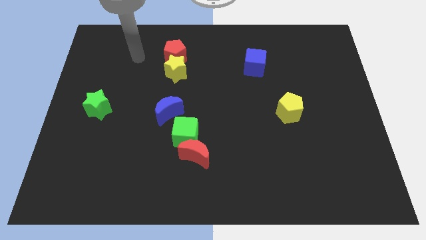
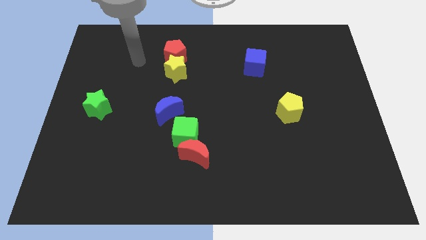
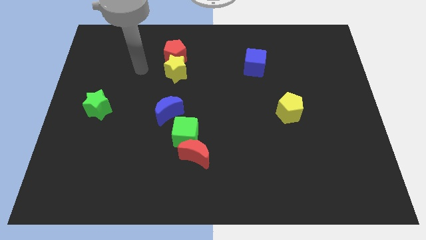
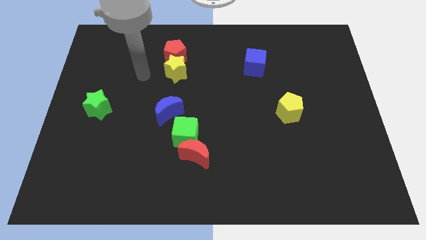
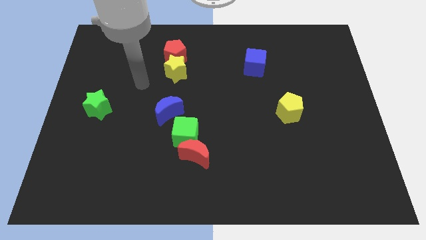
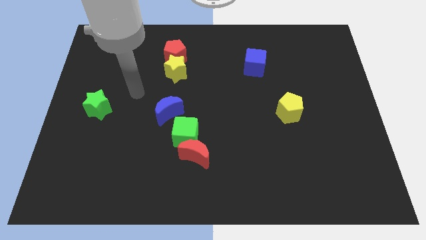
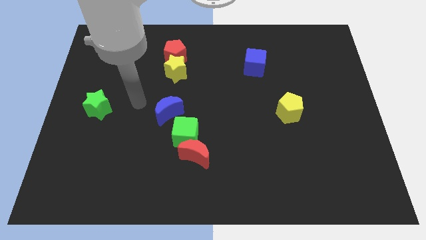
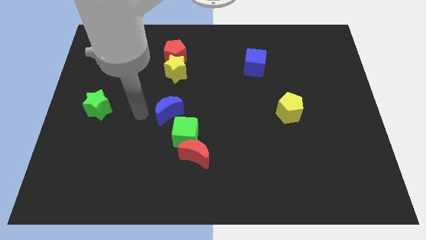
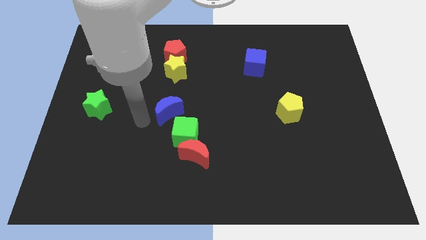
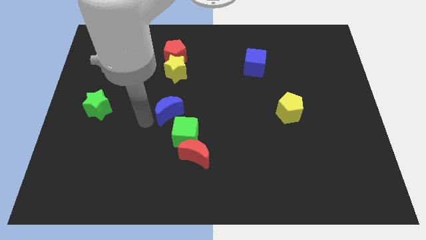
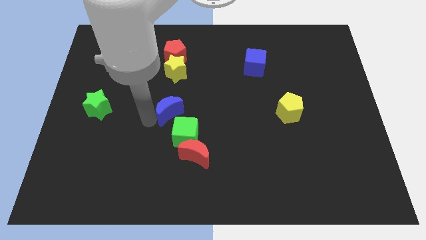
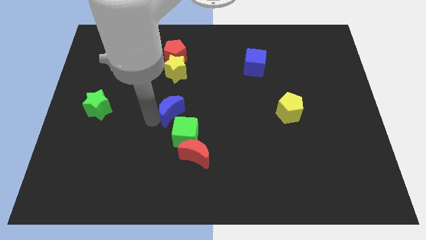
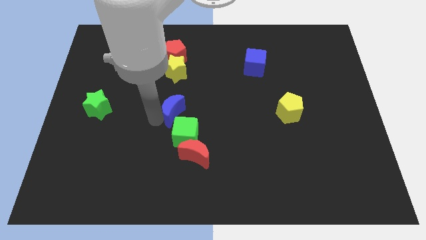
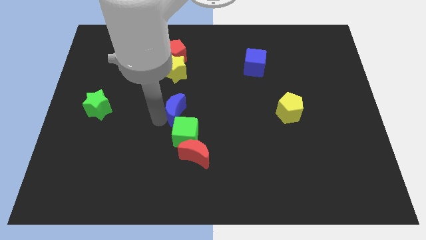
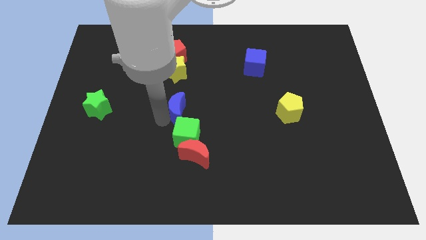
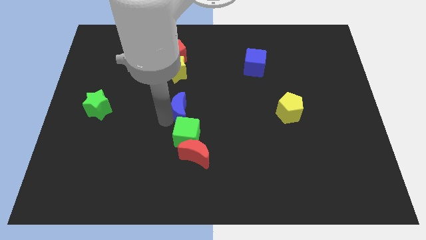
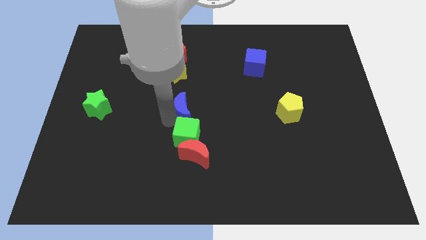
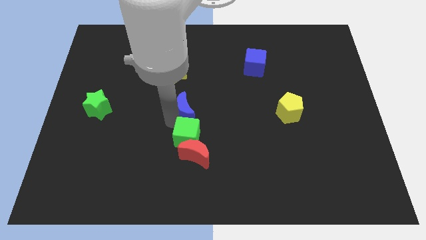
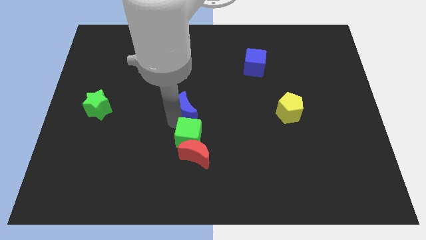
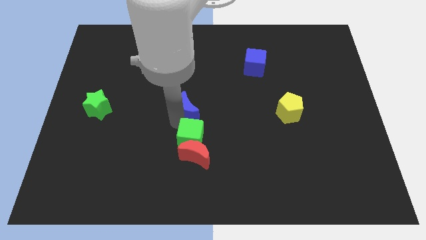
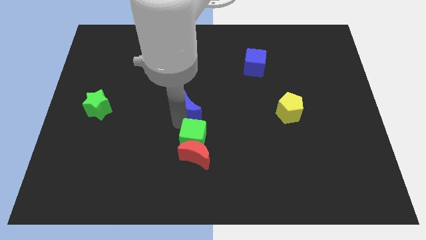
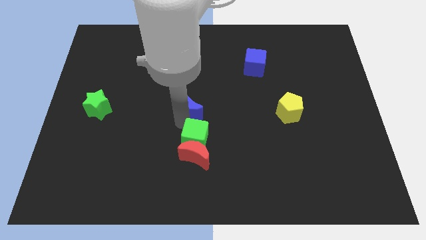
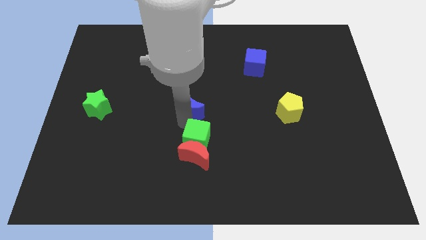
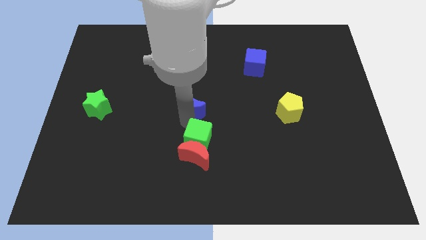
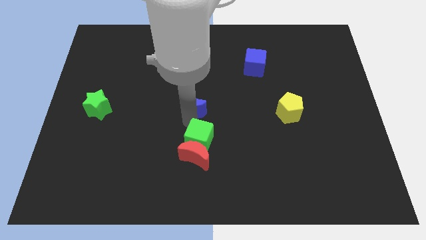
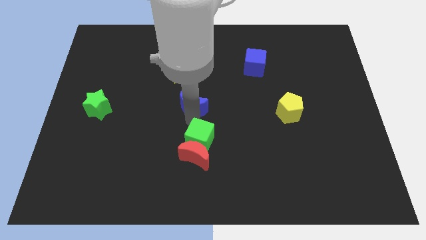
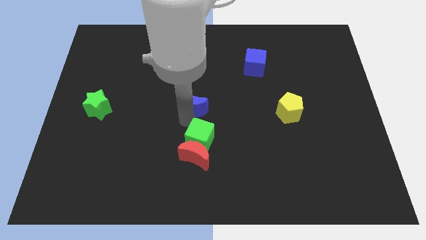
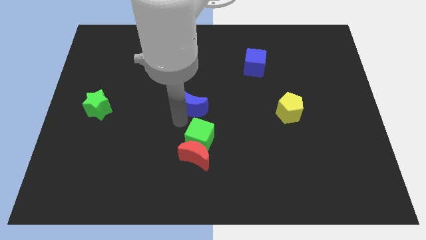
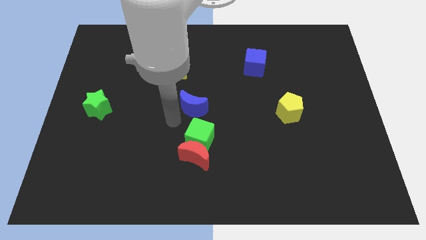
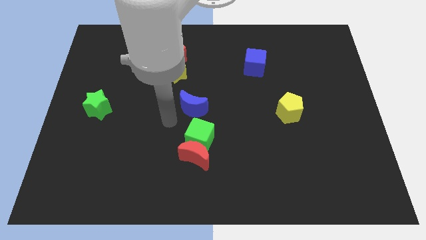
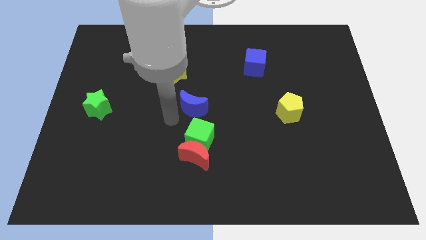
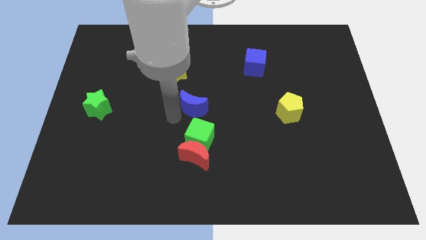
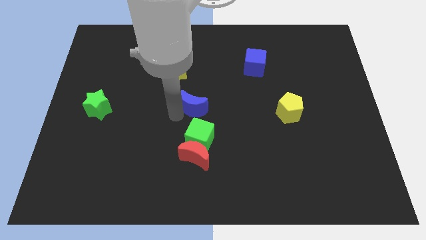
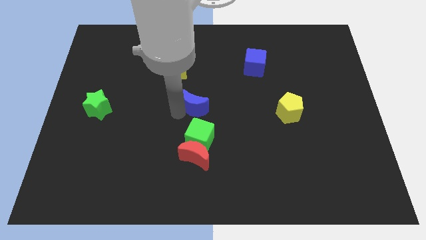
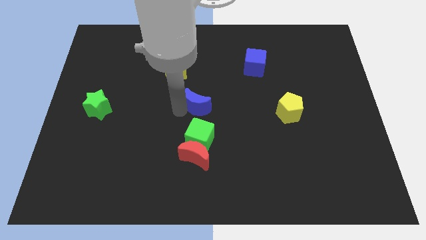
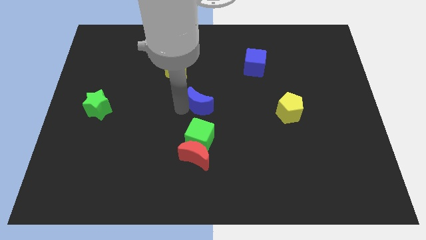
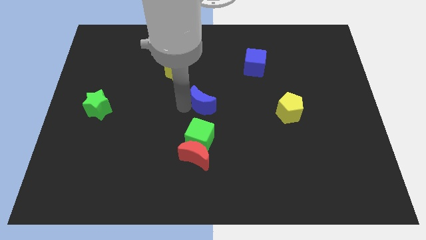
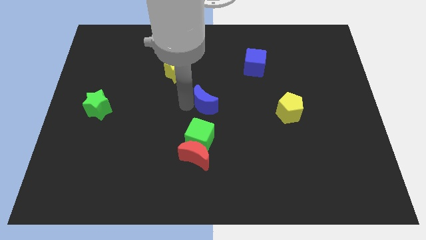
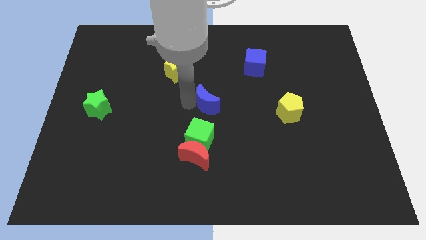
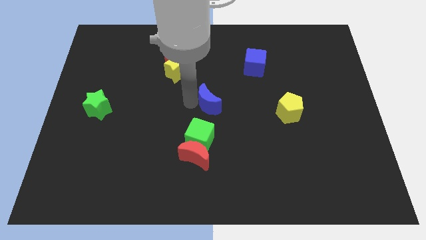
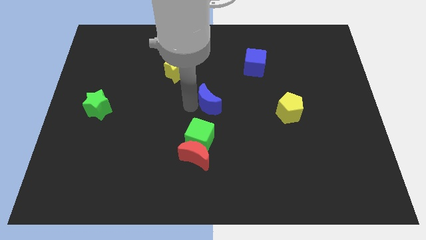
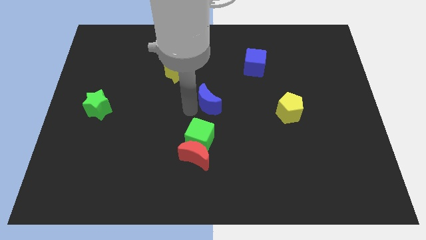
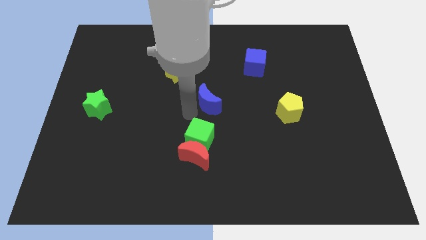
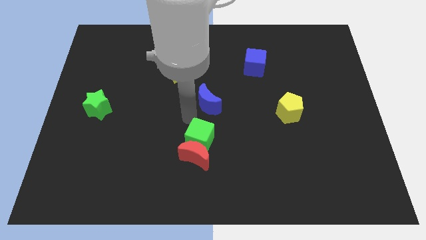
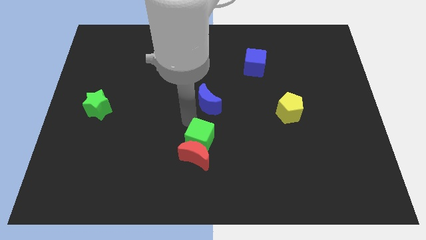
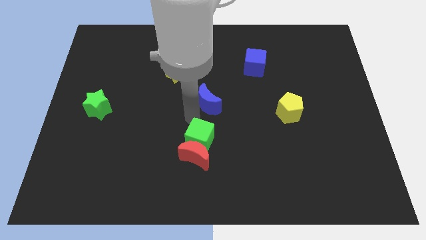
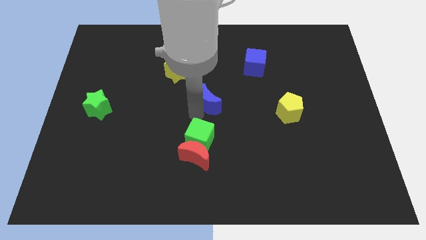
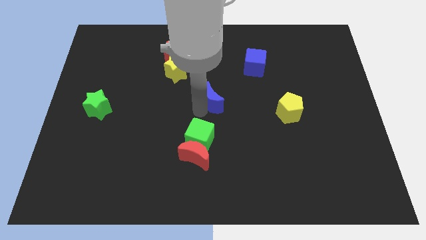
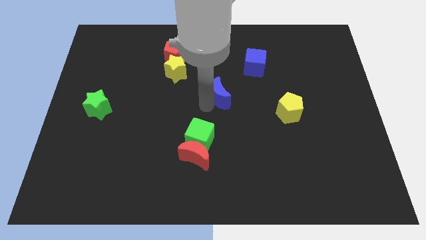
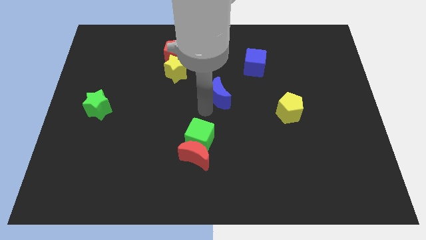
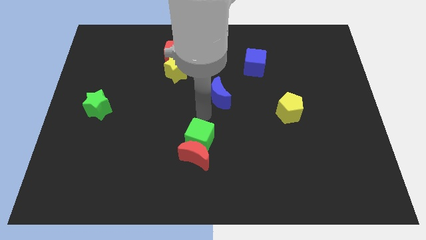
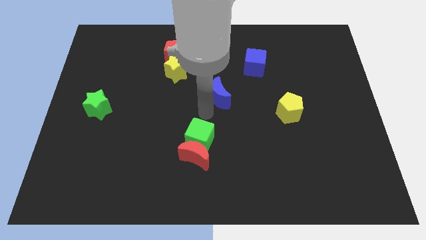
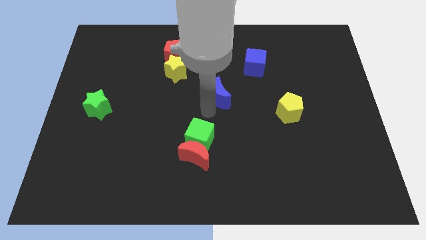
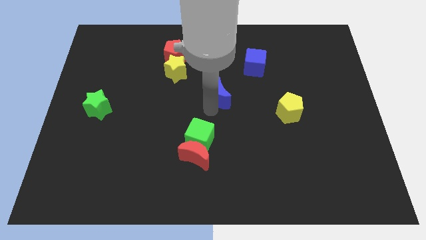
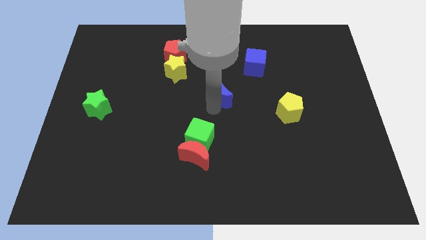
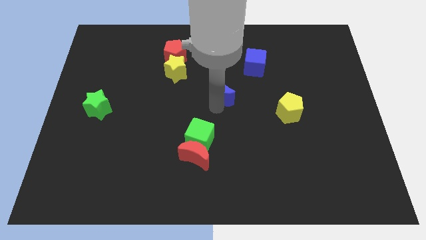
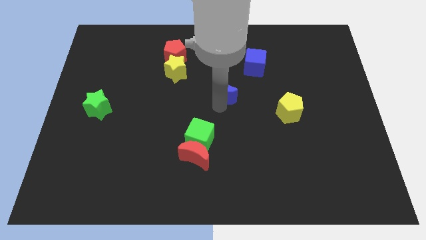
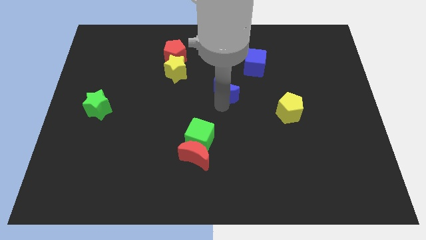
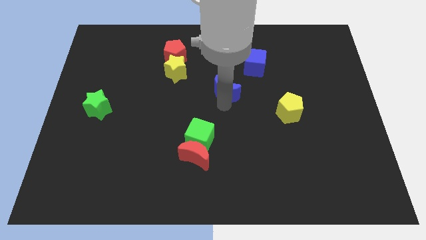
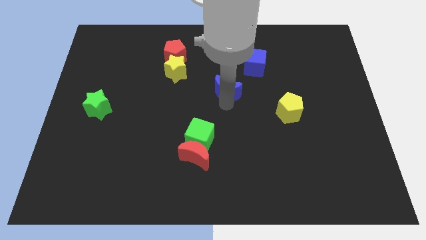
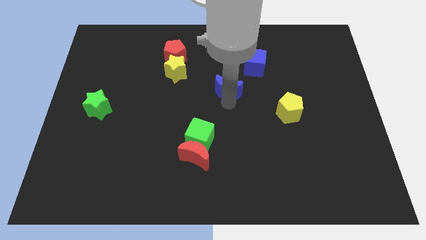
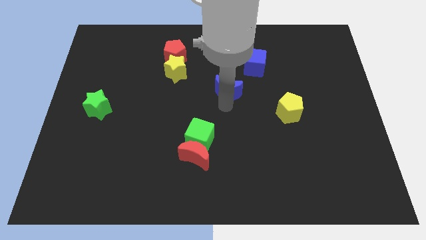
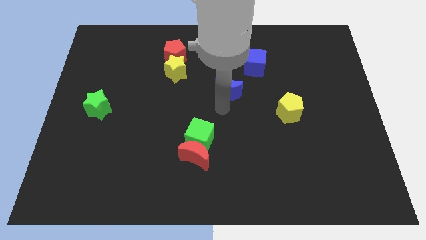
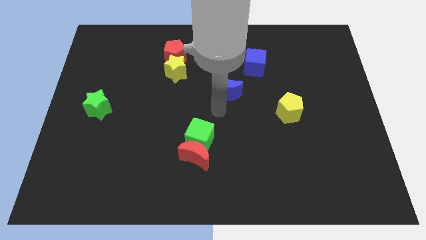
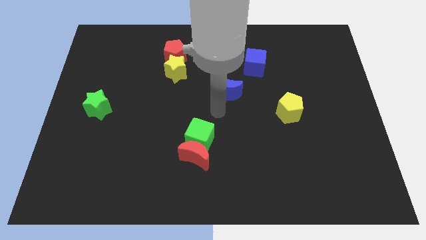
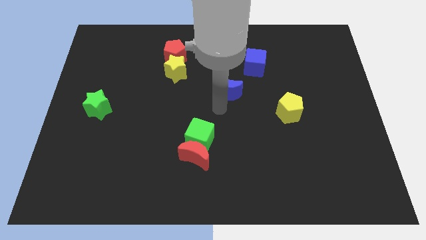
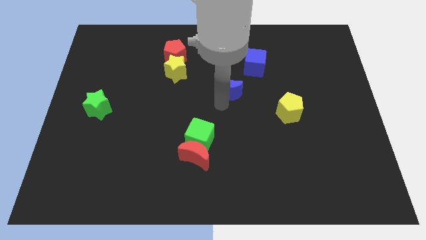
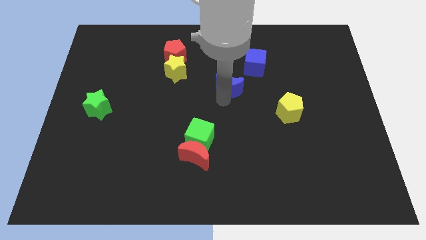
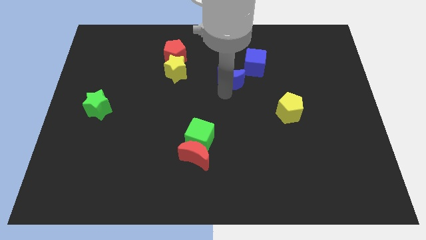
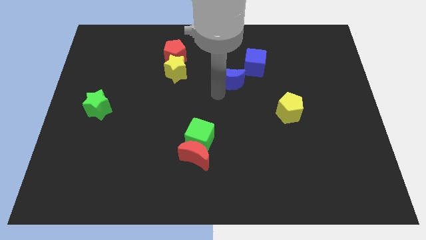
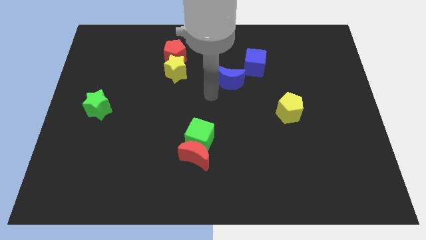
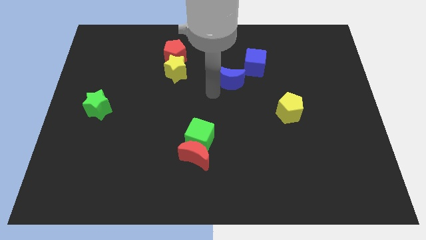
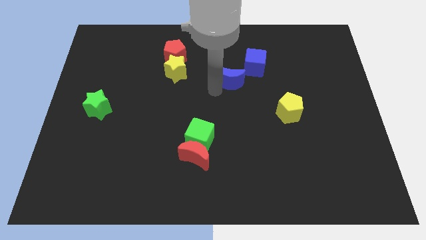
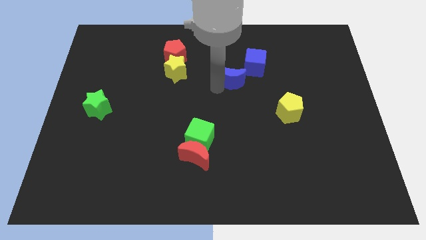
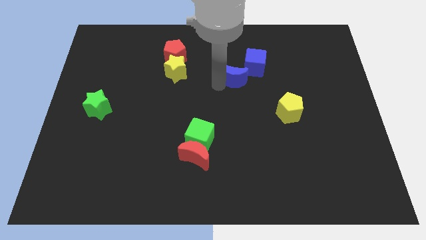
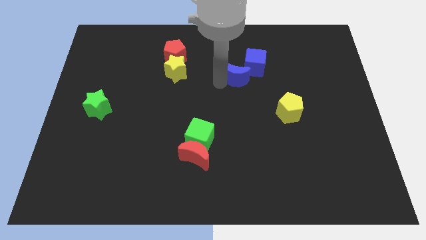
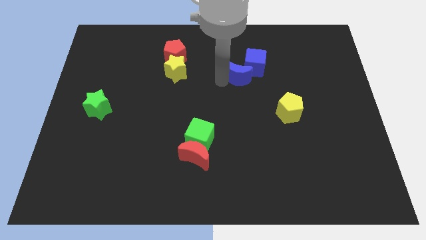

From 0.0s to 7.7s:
push the blue moon to the blue cube
